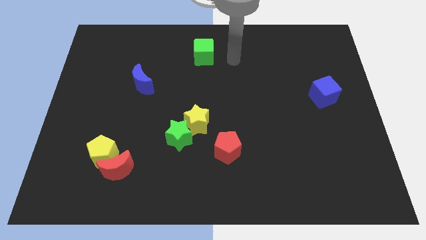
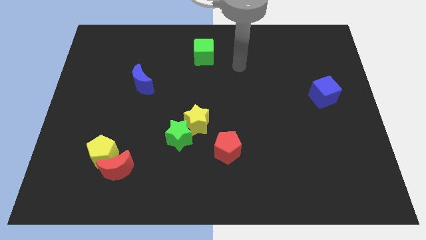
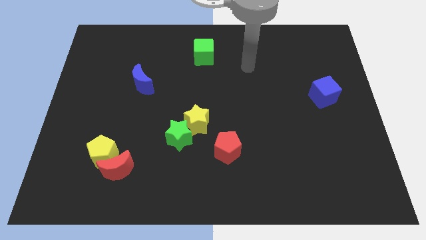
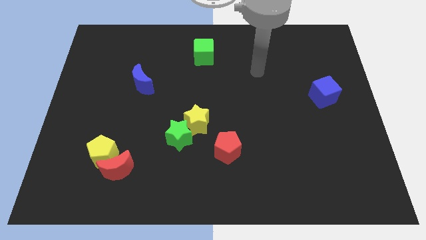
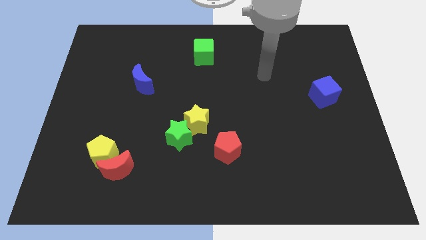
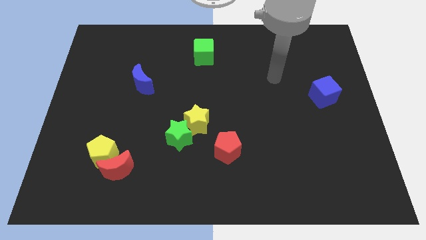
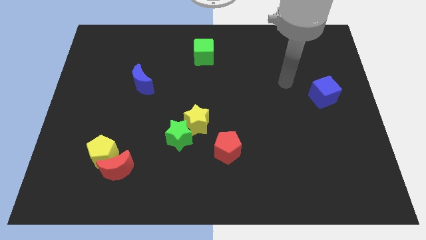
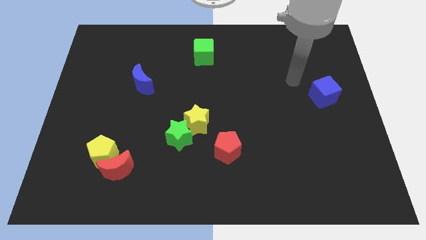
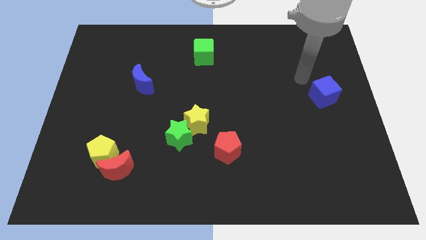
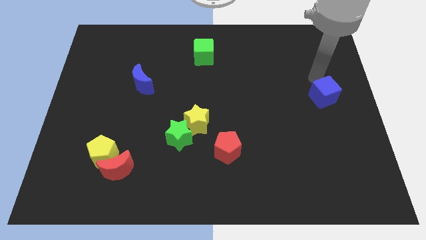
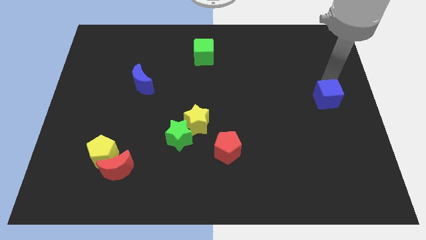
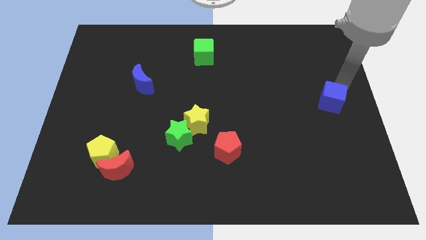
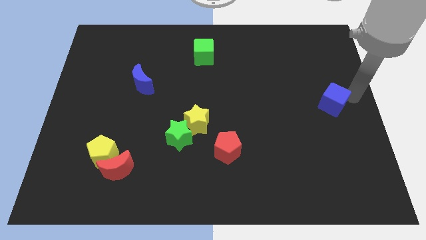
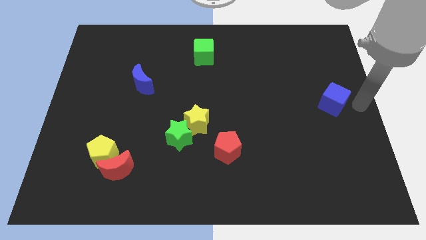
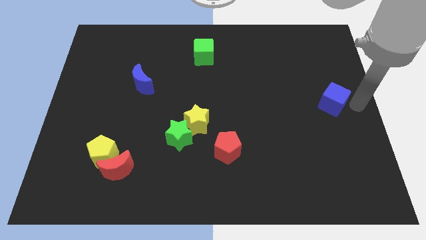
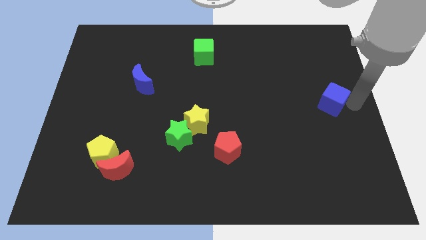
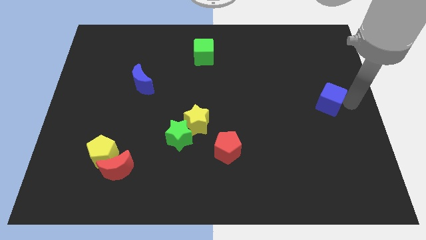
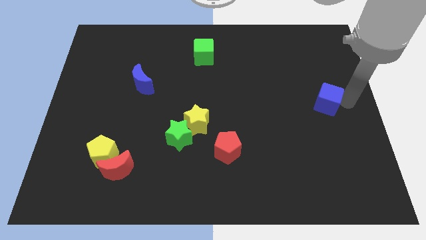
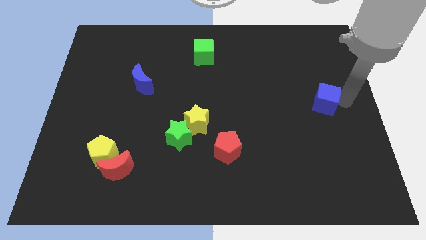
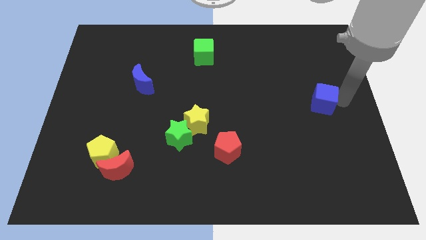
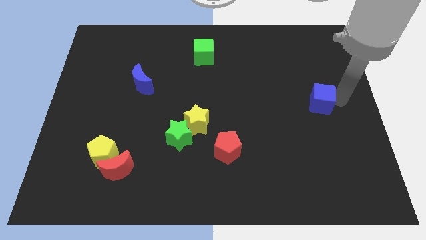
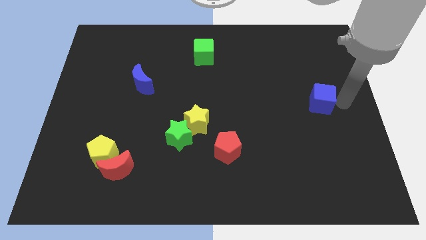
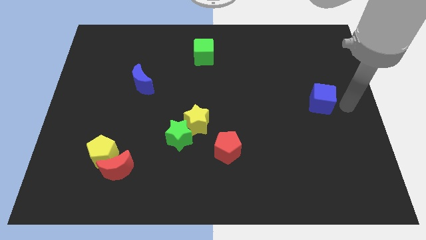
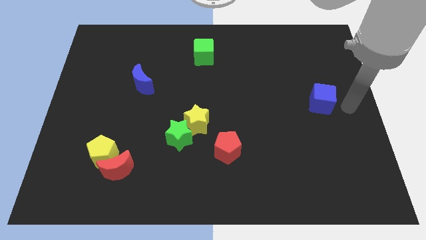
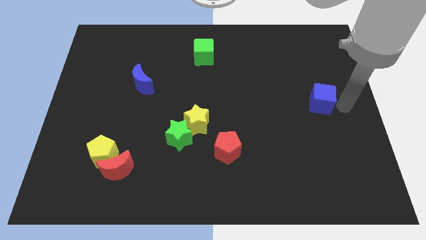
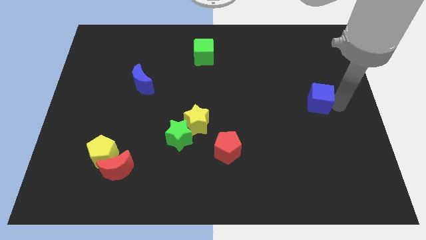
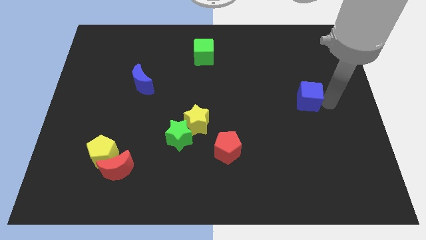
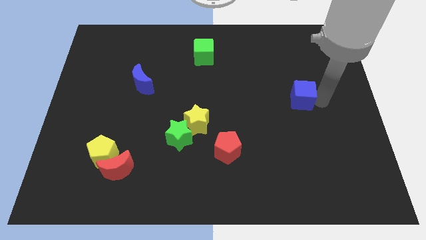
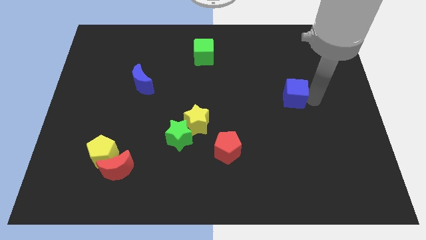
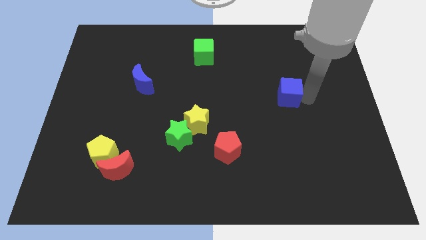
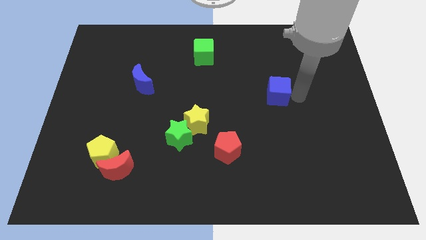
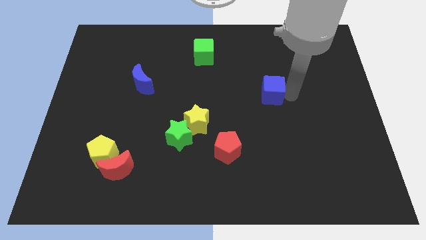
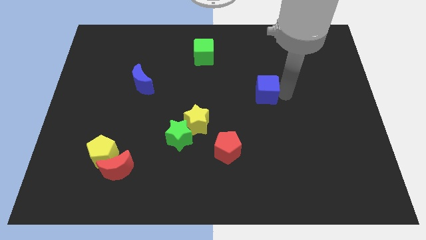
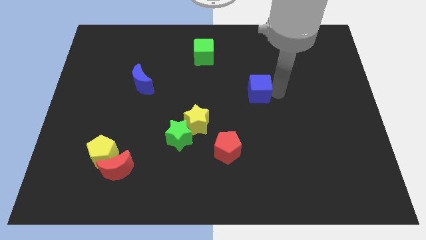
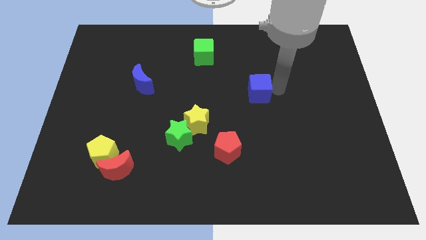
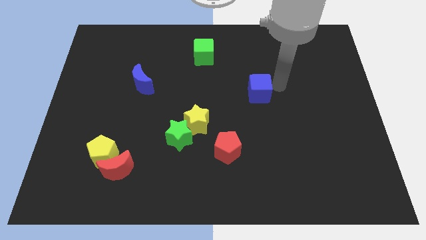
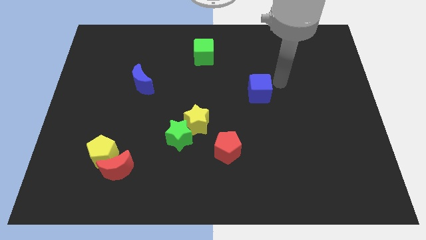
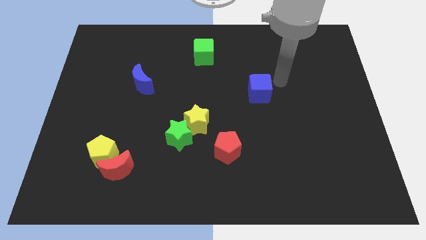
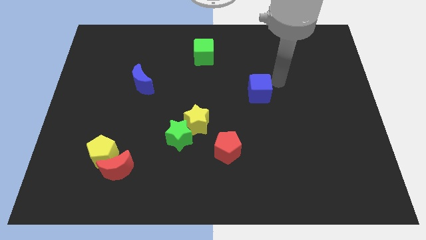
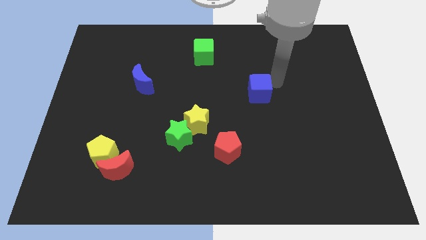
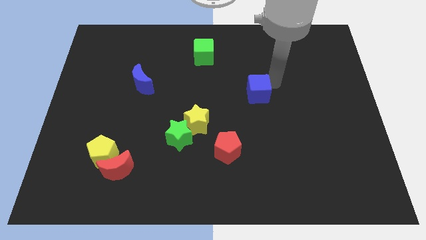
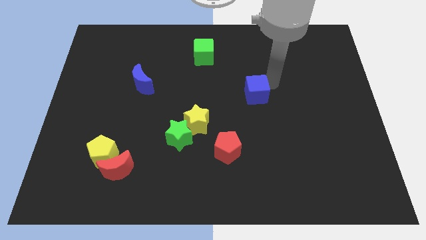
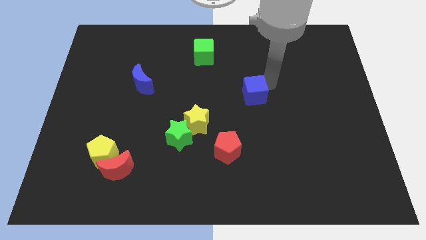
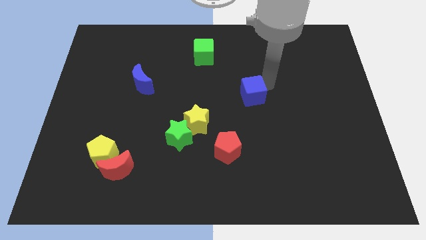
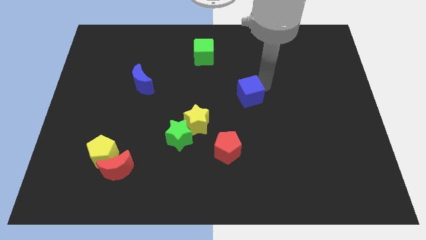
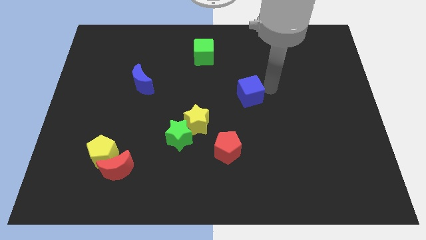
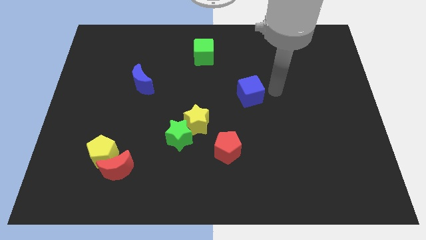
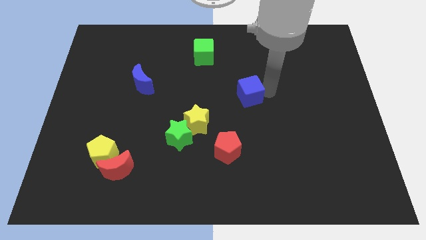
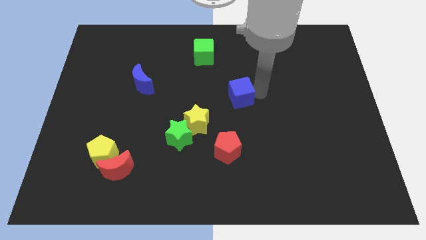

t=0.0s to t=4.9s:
slide the blue cube left

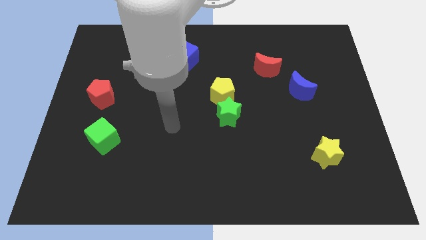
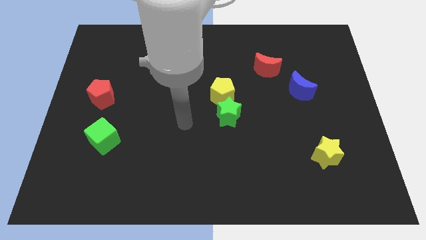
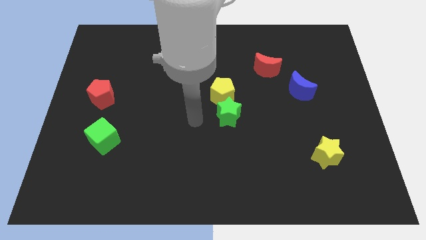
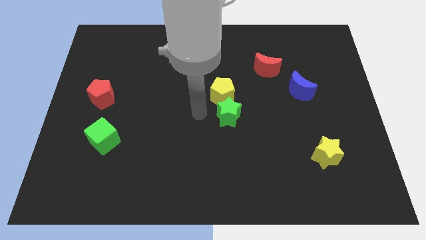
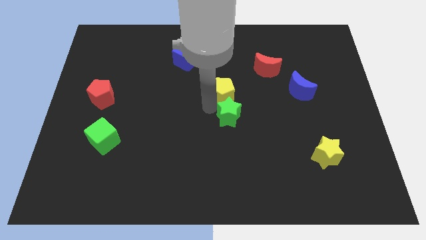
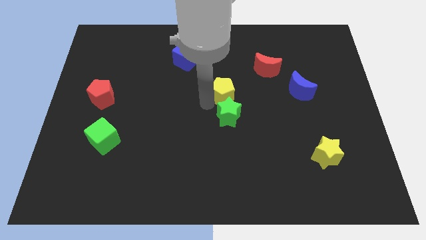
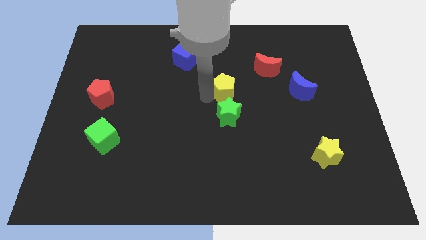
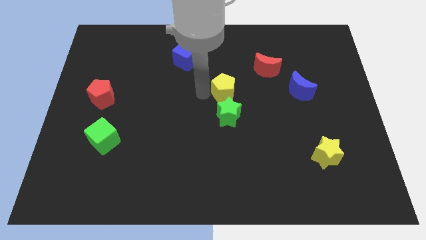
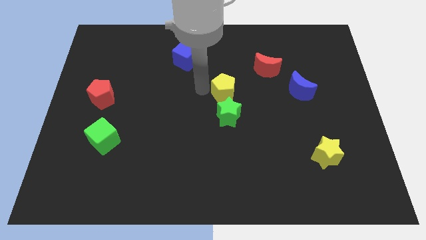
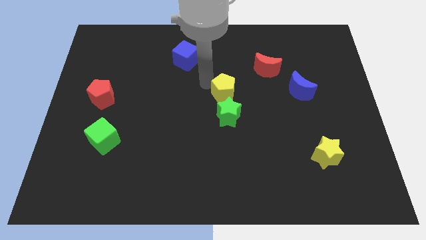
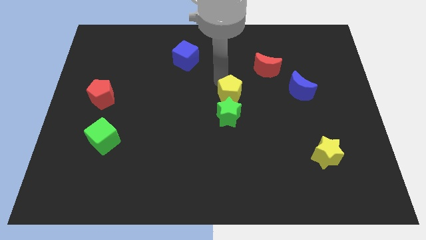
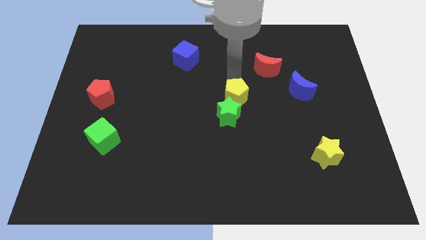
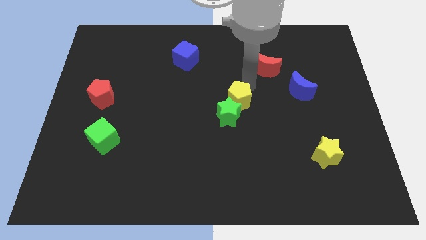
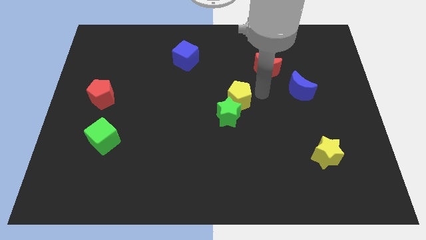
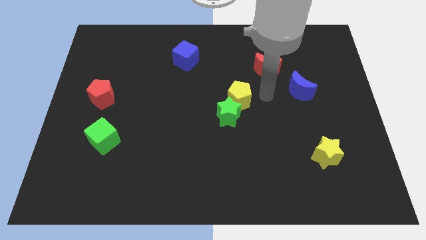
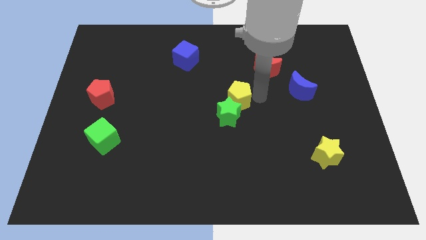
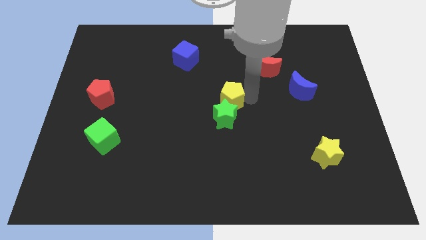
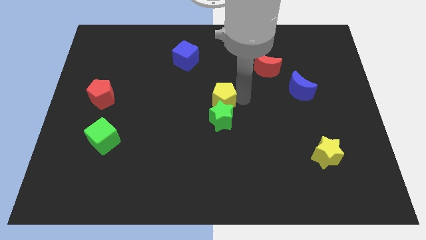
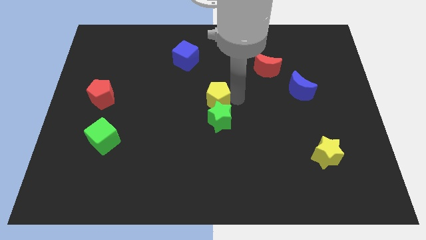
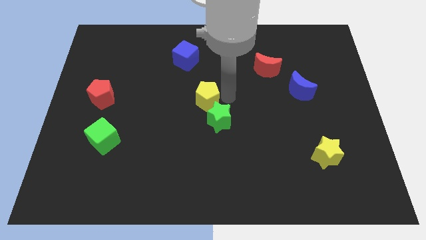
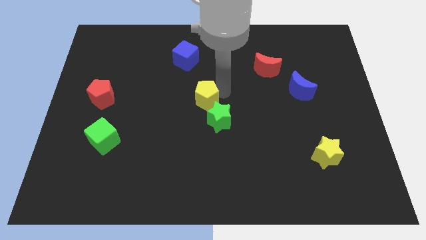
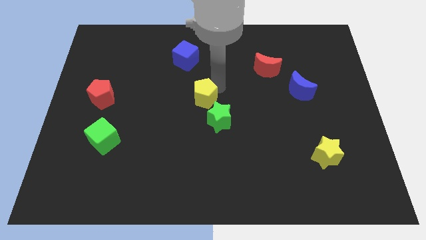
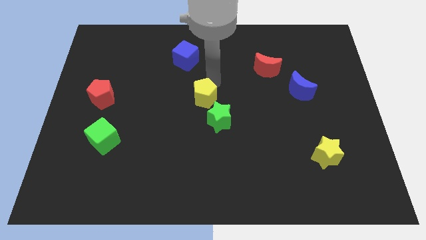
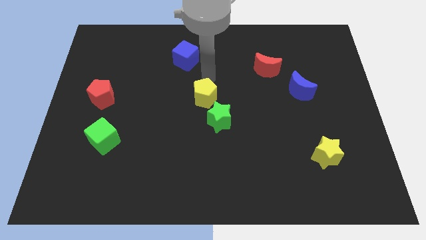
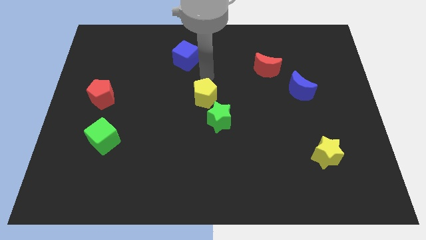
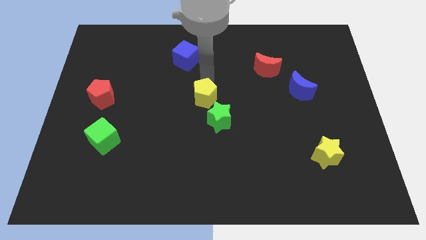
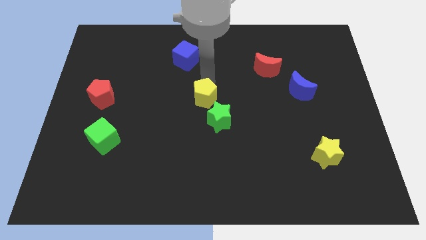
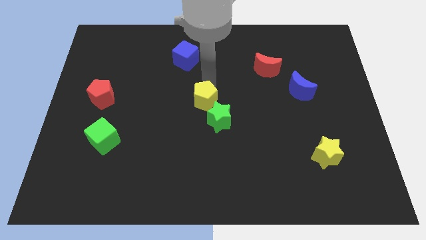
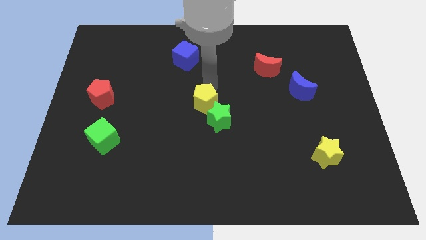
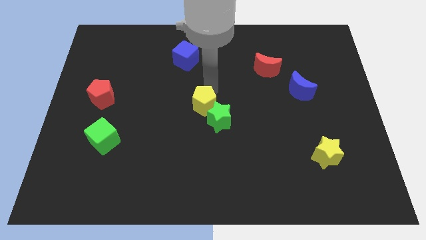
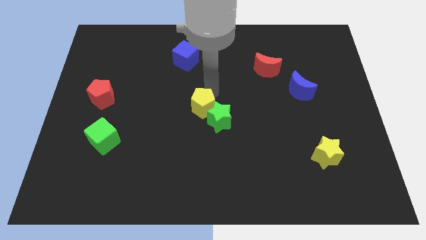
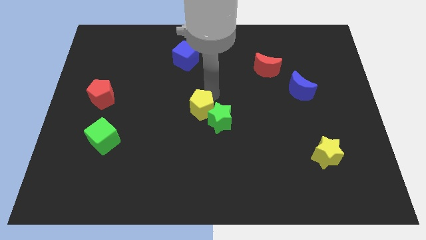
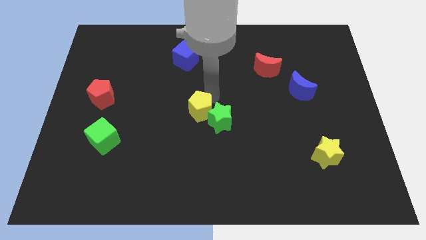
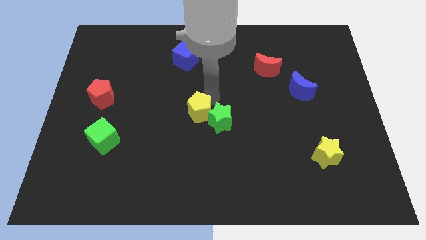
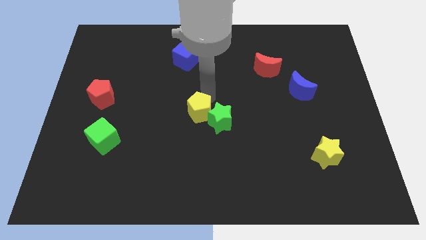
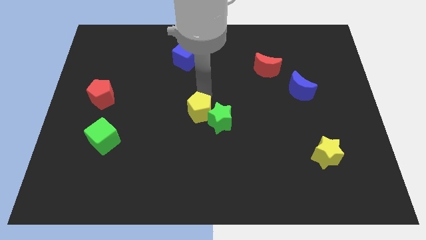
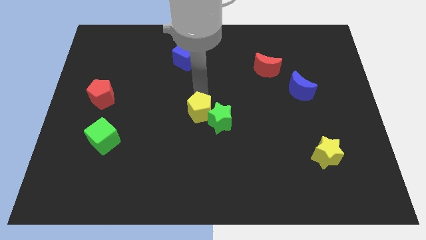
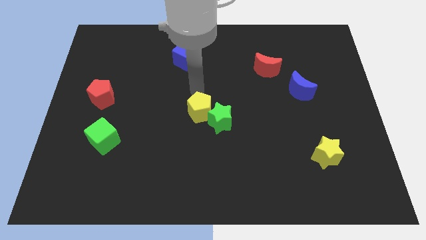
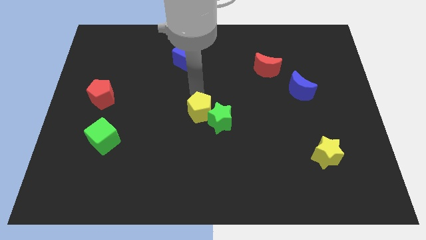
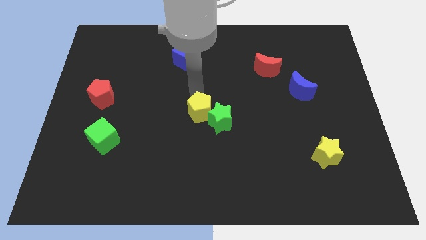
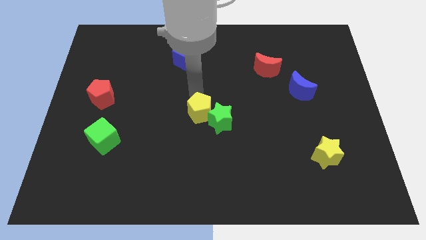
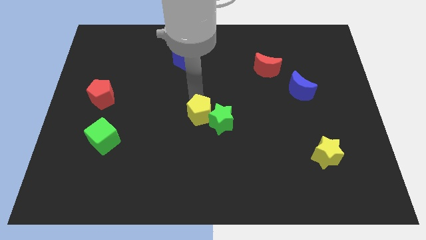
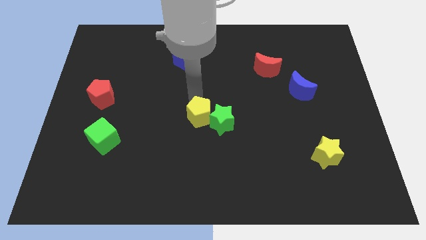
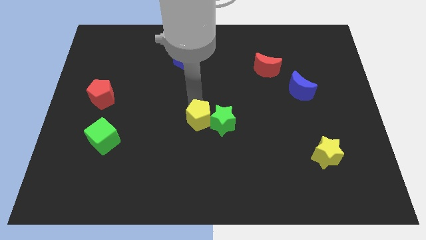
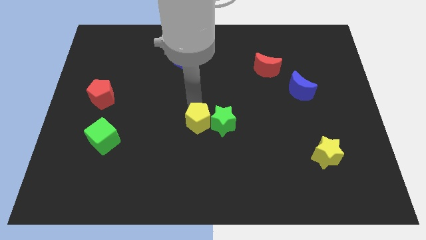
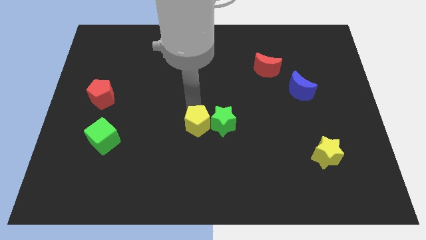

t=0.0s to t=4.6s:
slightly move the yellow pentagon down
